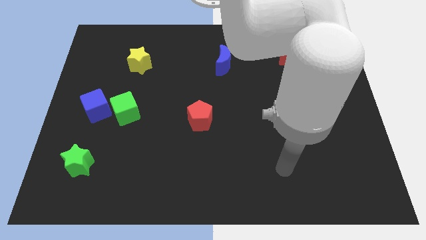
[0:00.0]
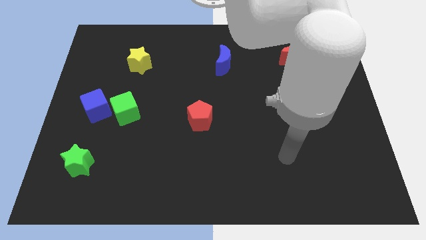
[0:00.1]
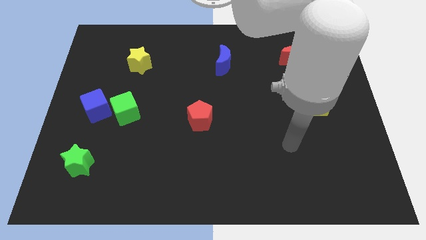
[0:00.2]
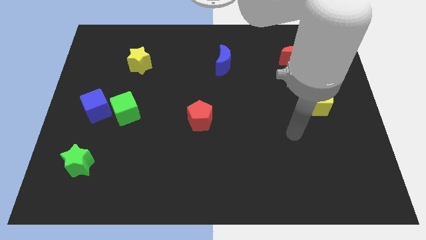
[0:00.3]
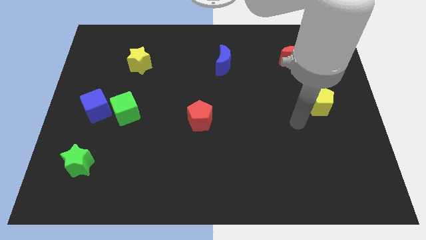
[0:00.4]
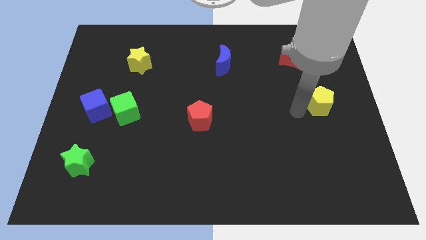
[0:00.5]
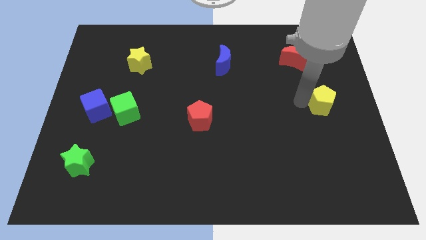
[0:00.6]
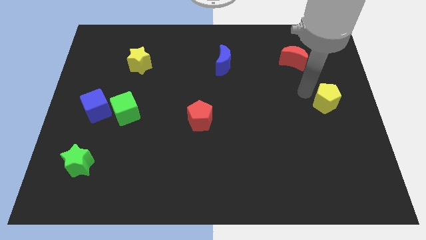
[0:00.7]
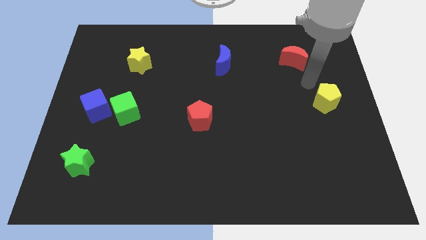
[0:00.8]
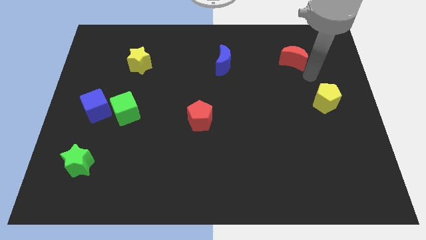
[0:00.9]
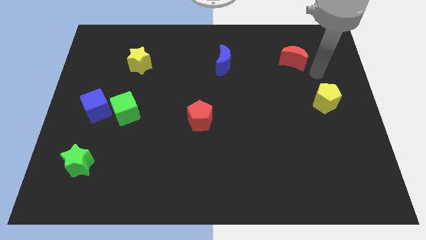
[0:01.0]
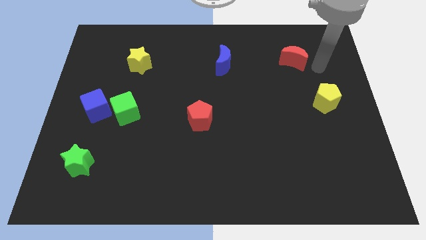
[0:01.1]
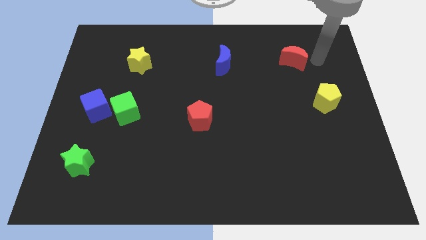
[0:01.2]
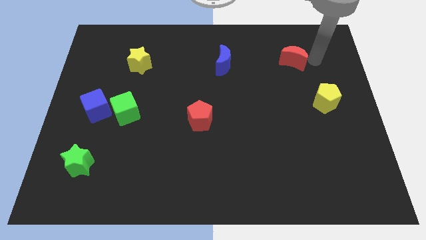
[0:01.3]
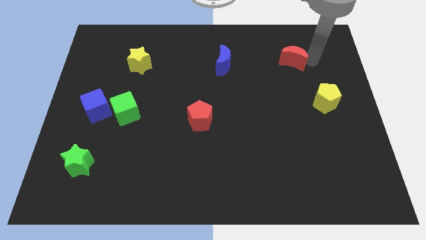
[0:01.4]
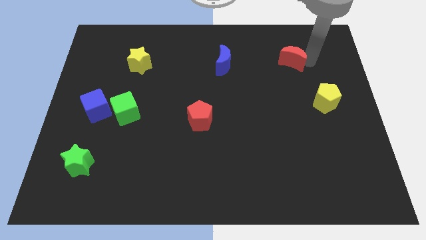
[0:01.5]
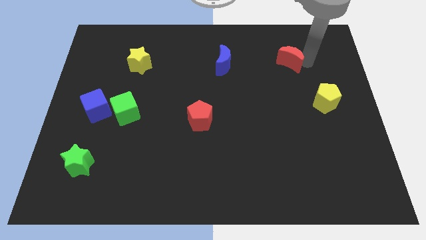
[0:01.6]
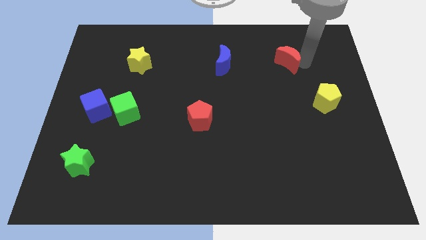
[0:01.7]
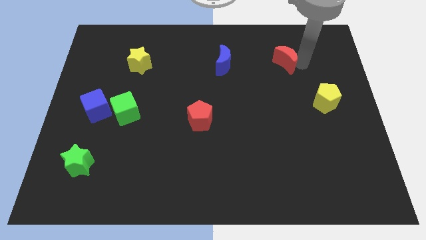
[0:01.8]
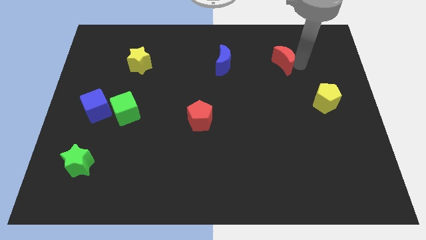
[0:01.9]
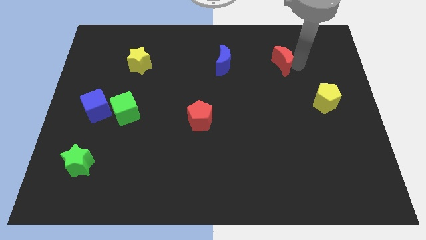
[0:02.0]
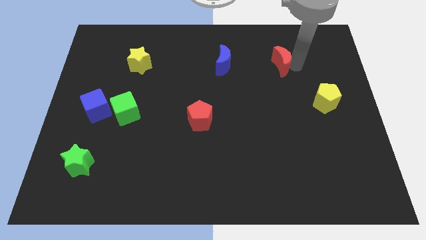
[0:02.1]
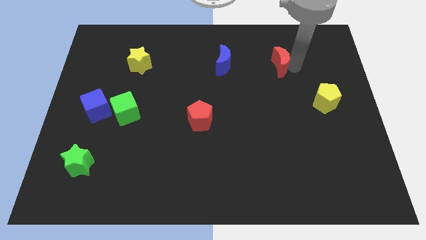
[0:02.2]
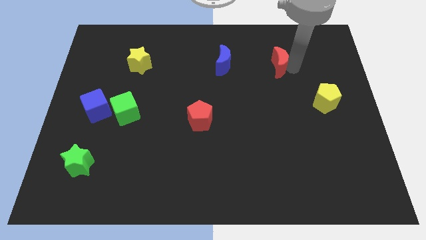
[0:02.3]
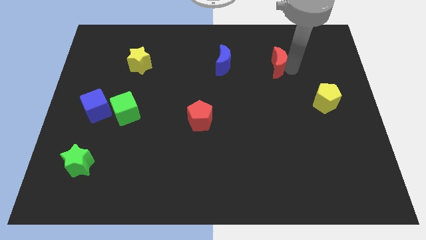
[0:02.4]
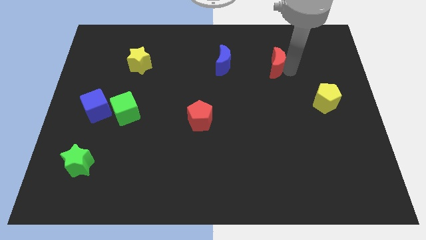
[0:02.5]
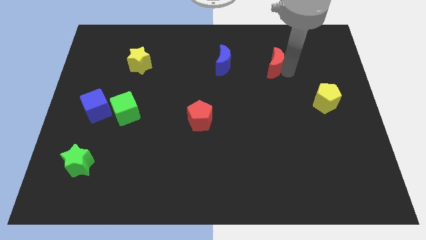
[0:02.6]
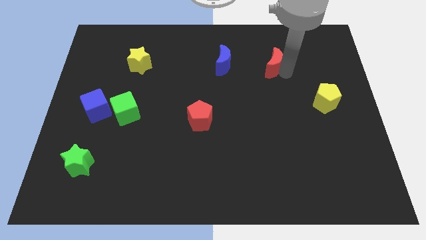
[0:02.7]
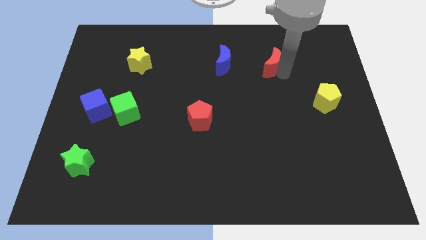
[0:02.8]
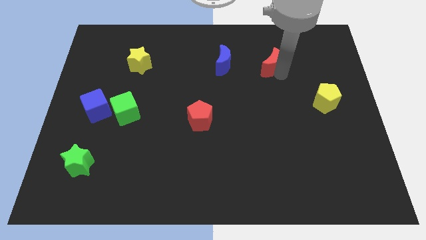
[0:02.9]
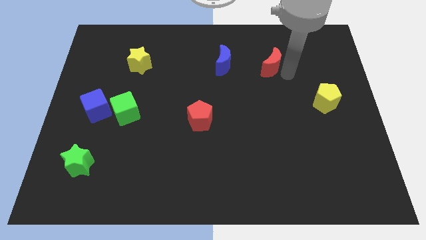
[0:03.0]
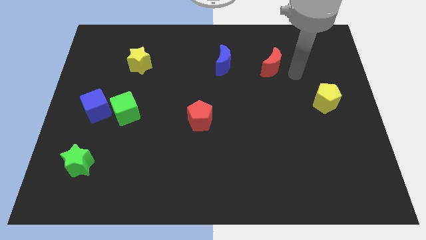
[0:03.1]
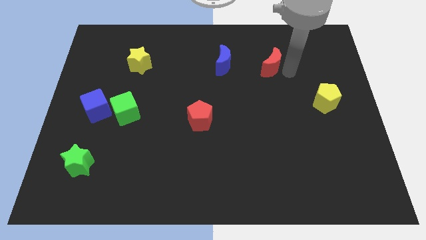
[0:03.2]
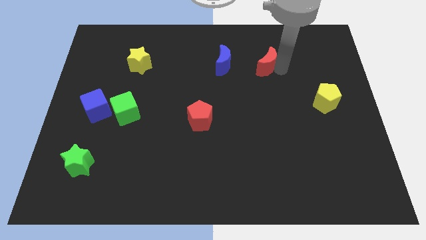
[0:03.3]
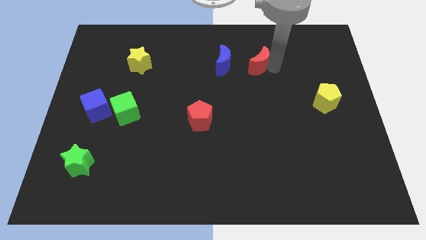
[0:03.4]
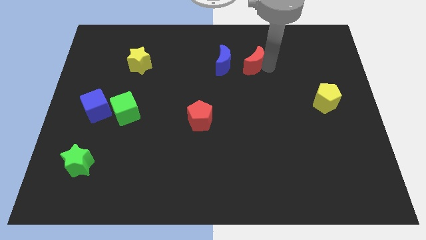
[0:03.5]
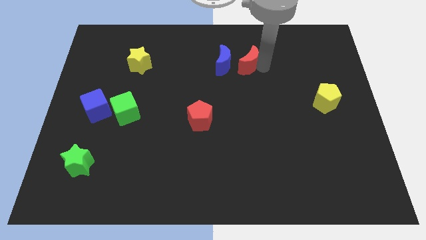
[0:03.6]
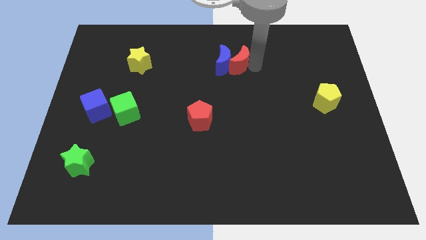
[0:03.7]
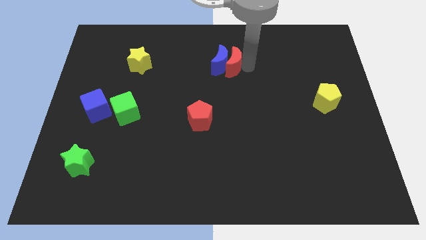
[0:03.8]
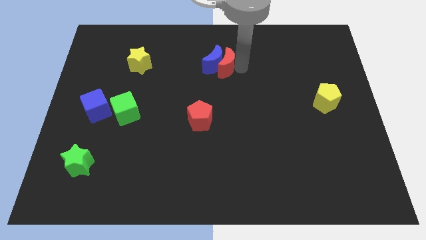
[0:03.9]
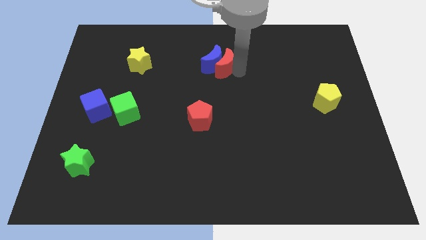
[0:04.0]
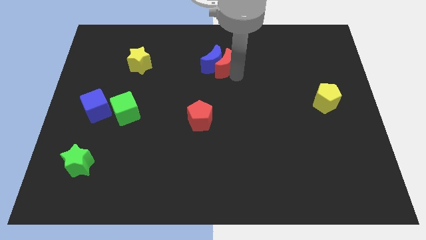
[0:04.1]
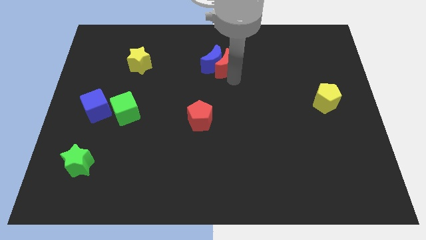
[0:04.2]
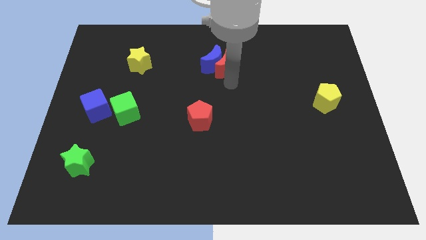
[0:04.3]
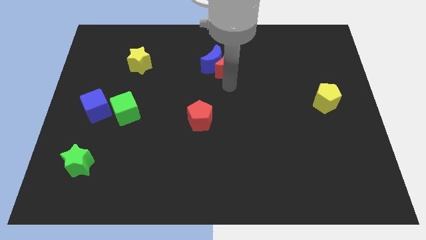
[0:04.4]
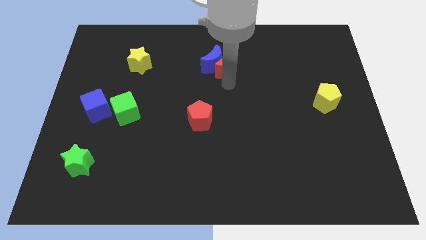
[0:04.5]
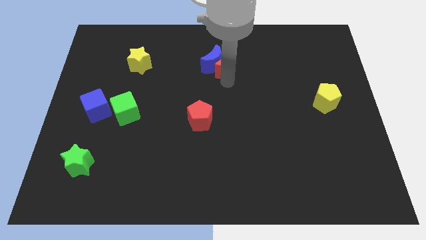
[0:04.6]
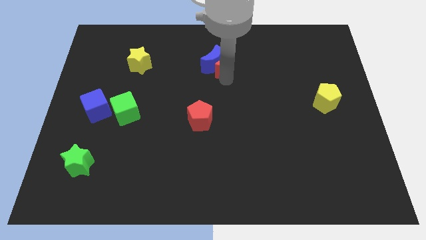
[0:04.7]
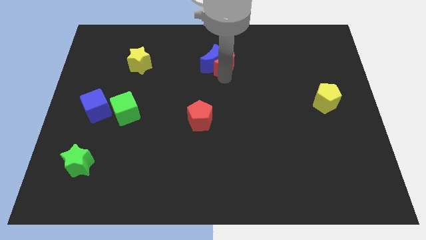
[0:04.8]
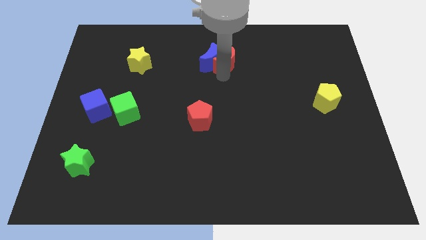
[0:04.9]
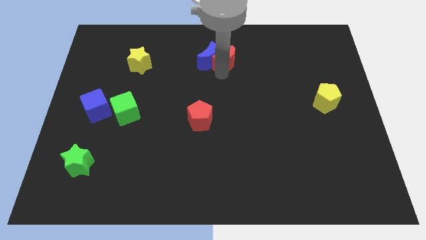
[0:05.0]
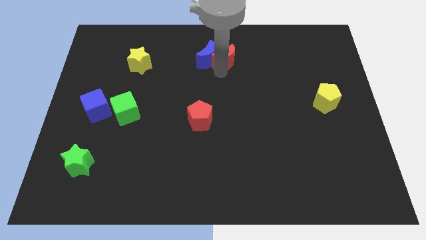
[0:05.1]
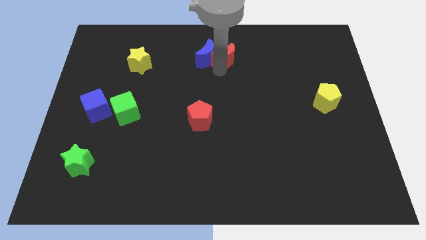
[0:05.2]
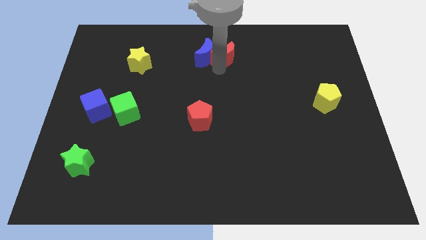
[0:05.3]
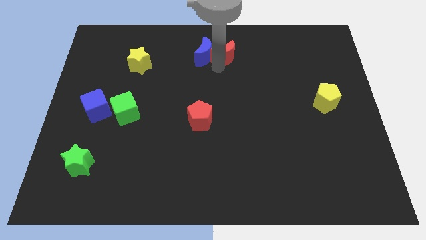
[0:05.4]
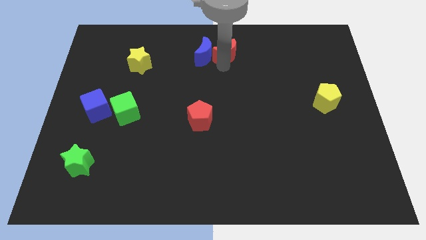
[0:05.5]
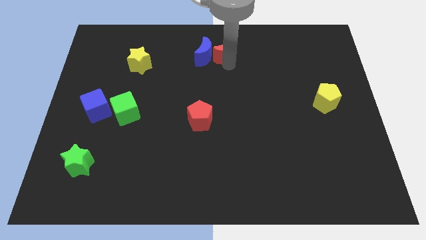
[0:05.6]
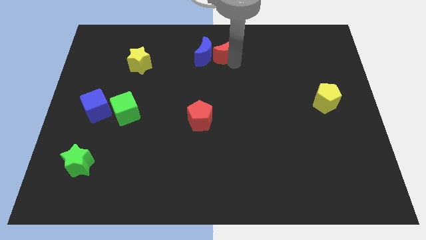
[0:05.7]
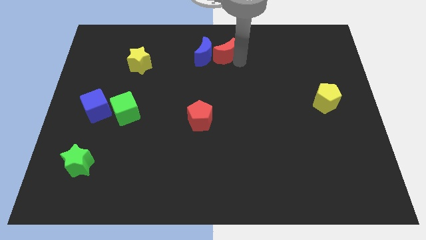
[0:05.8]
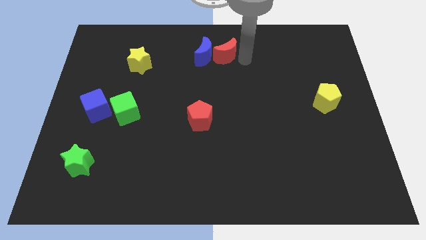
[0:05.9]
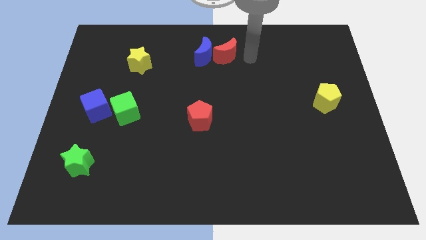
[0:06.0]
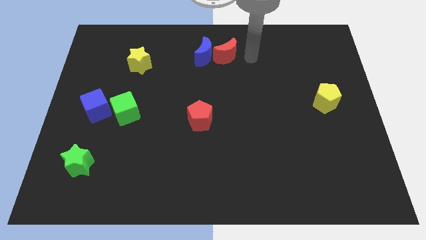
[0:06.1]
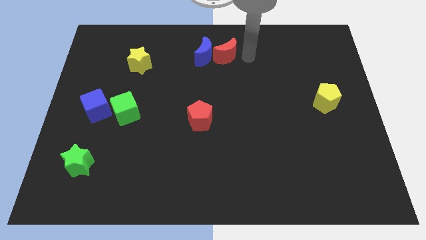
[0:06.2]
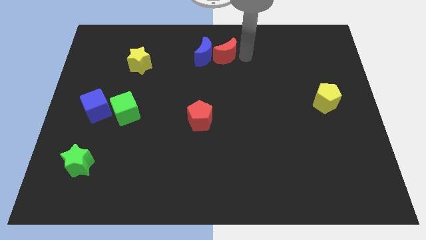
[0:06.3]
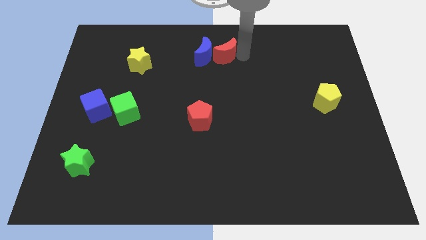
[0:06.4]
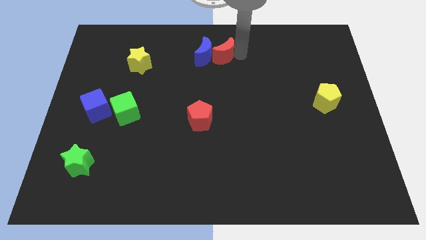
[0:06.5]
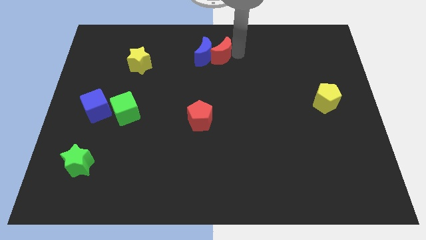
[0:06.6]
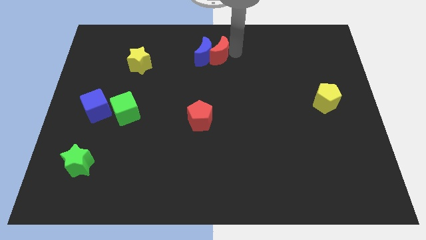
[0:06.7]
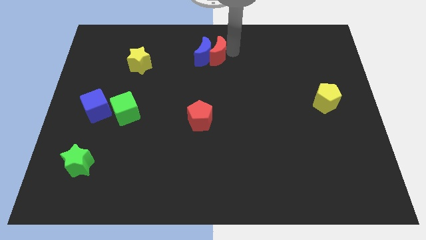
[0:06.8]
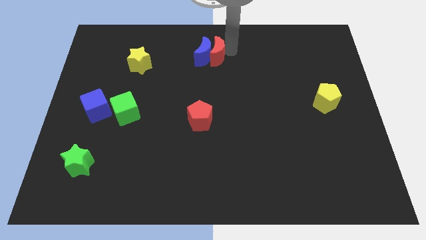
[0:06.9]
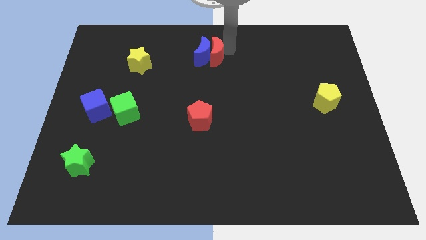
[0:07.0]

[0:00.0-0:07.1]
push the red moon left

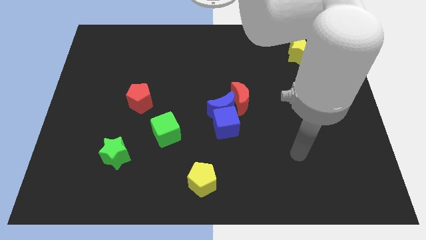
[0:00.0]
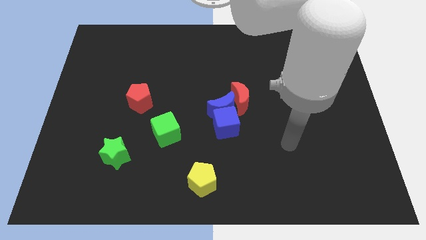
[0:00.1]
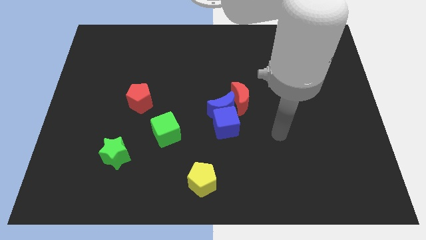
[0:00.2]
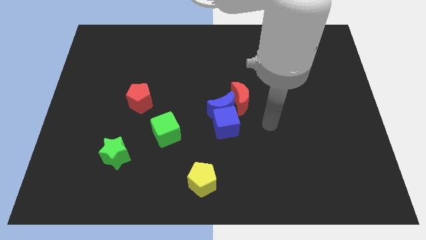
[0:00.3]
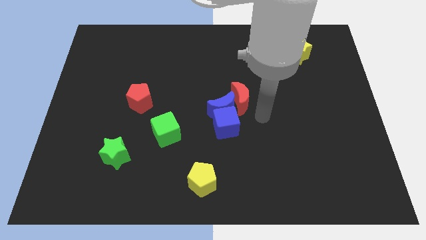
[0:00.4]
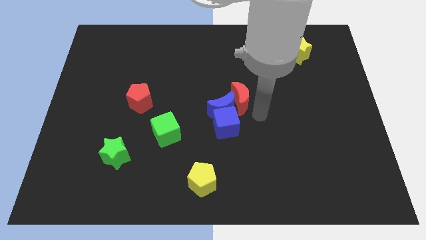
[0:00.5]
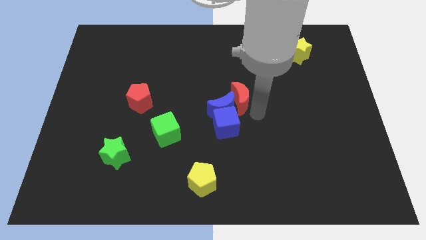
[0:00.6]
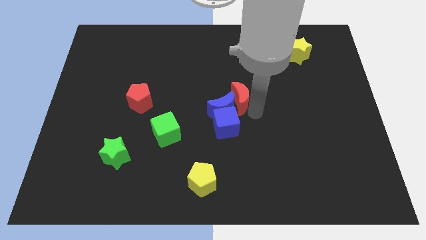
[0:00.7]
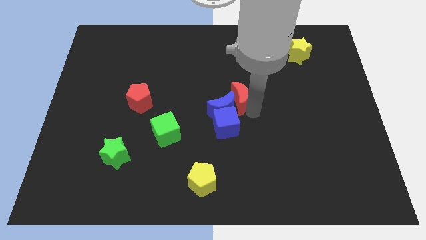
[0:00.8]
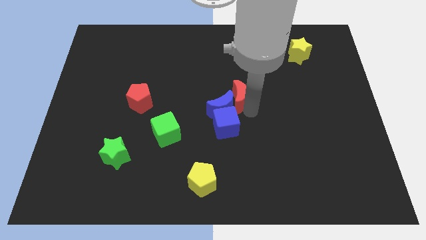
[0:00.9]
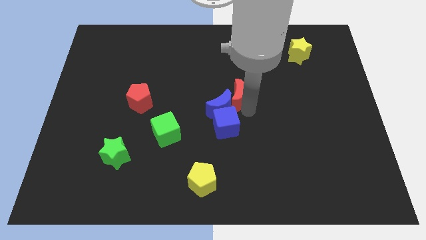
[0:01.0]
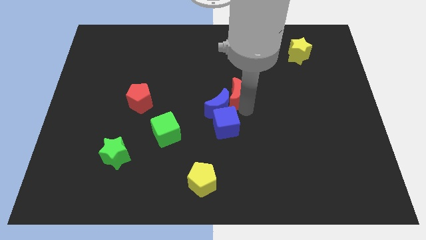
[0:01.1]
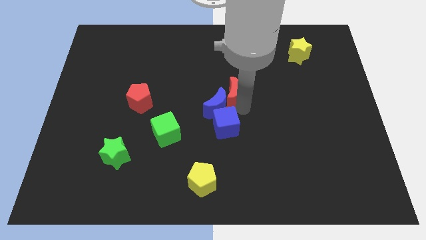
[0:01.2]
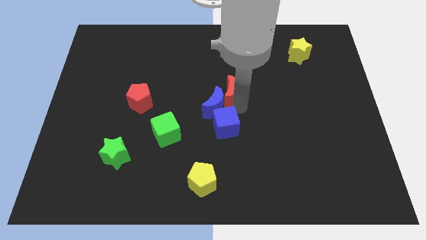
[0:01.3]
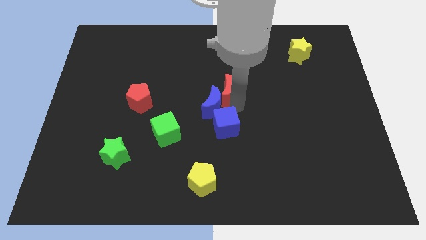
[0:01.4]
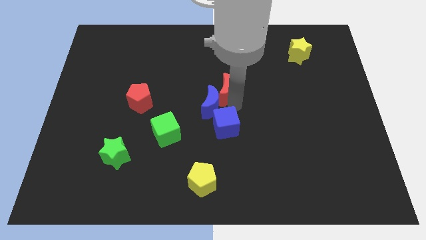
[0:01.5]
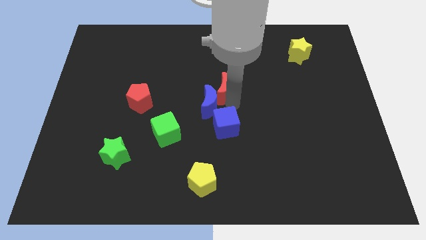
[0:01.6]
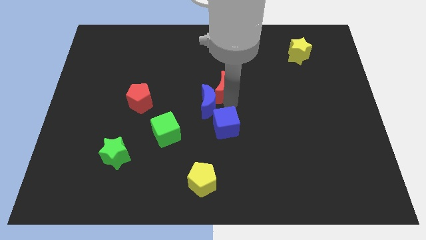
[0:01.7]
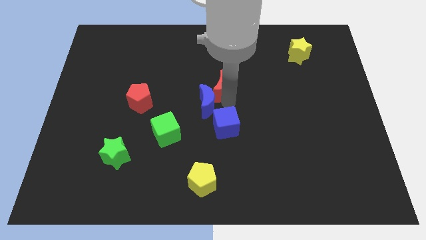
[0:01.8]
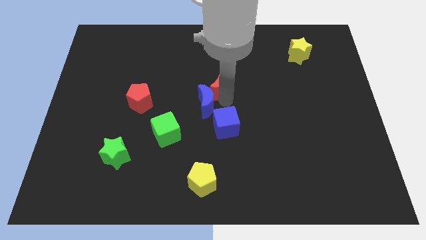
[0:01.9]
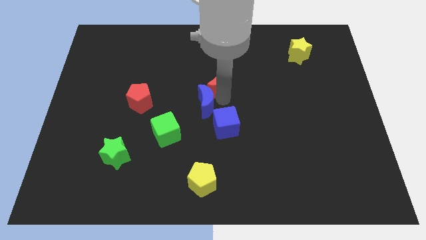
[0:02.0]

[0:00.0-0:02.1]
move the red moon a little upwards and to the left
